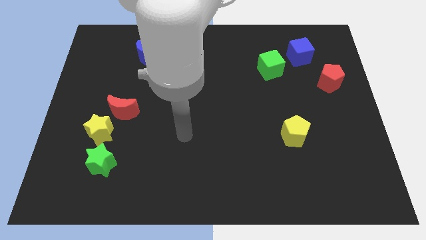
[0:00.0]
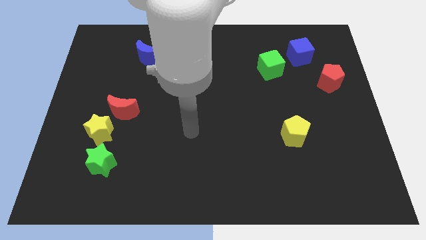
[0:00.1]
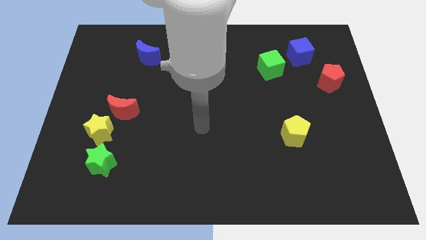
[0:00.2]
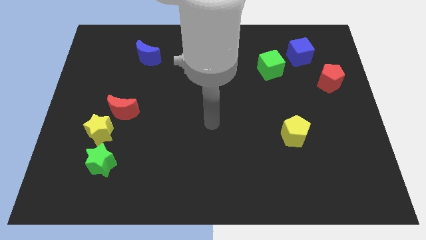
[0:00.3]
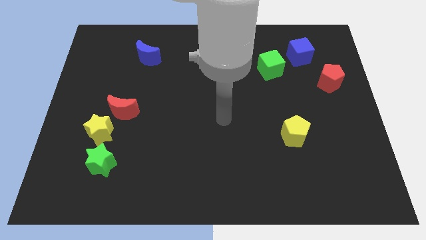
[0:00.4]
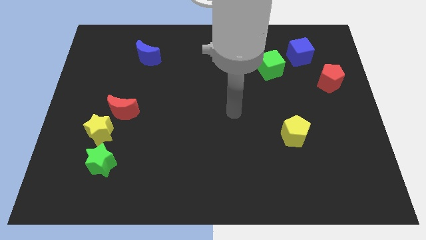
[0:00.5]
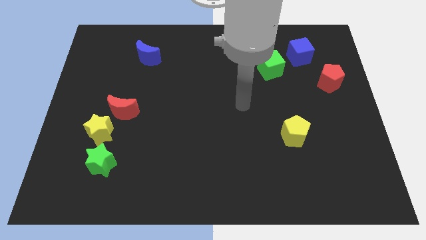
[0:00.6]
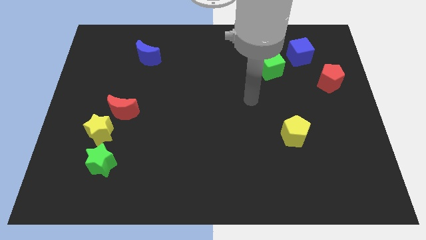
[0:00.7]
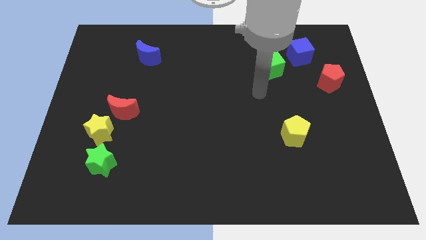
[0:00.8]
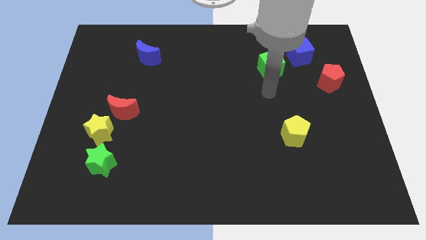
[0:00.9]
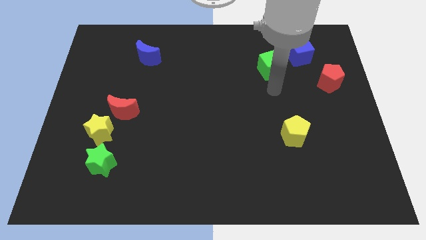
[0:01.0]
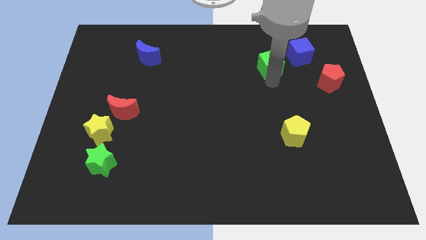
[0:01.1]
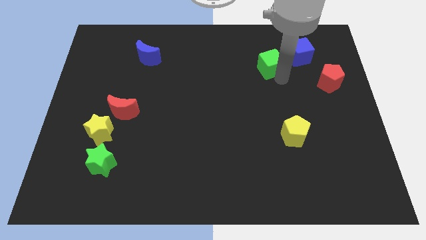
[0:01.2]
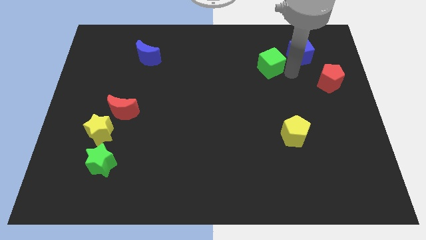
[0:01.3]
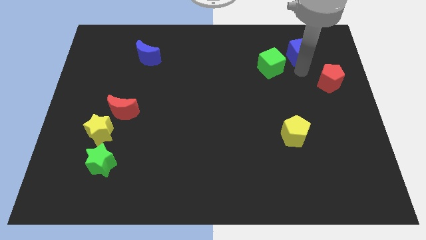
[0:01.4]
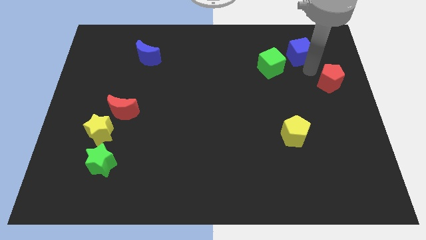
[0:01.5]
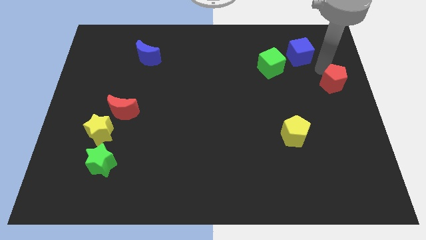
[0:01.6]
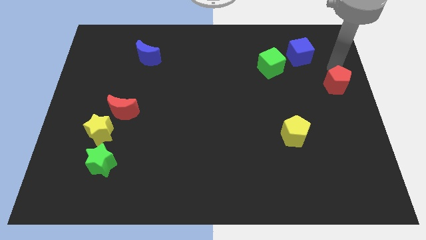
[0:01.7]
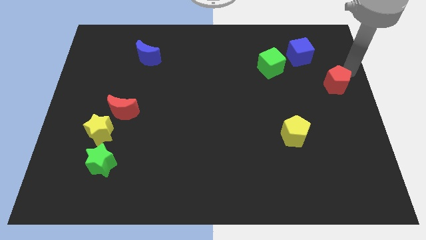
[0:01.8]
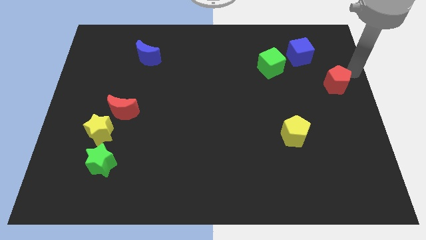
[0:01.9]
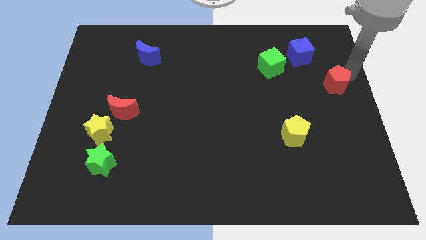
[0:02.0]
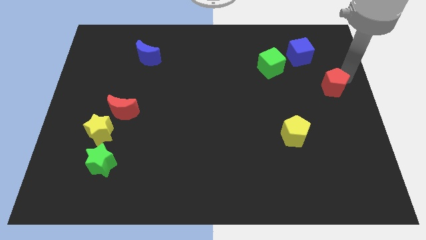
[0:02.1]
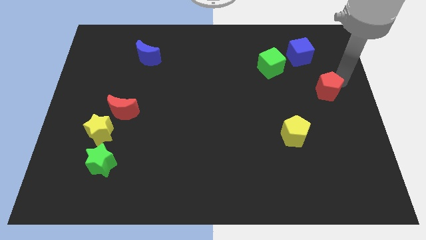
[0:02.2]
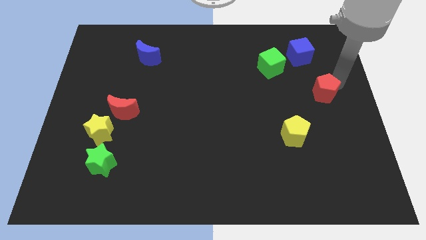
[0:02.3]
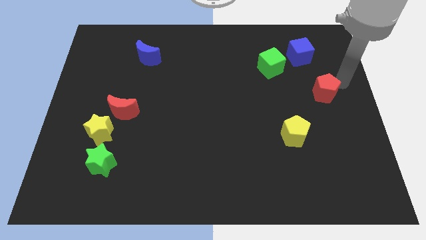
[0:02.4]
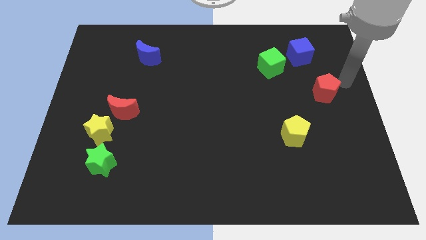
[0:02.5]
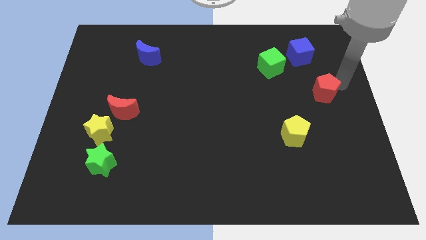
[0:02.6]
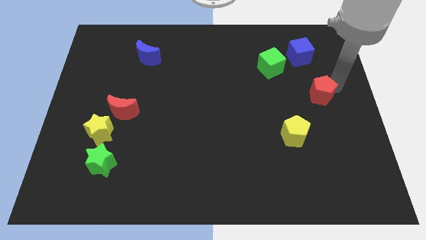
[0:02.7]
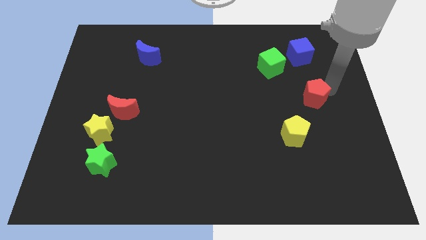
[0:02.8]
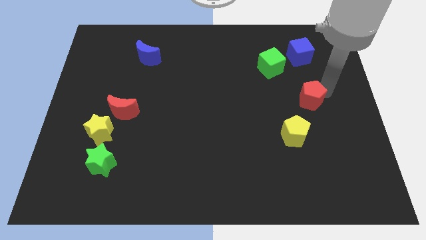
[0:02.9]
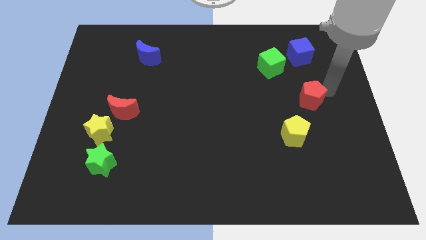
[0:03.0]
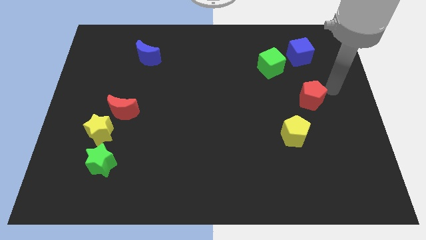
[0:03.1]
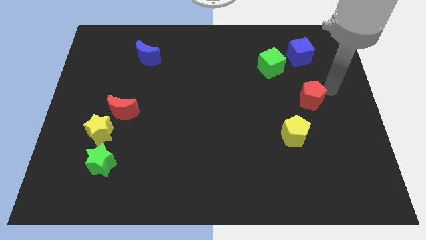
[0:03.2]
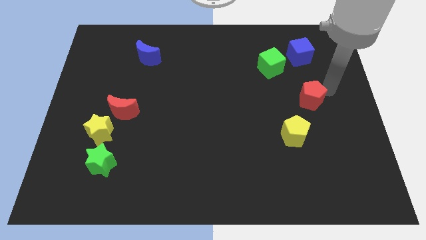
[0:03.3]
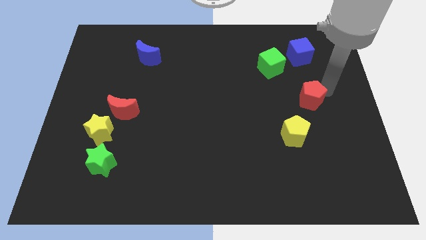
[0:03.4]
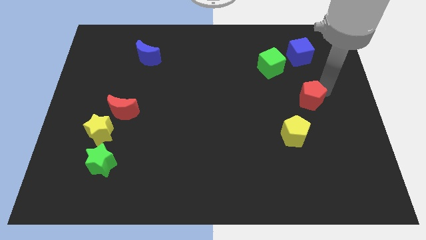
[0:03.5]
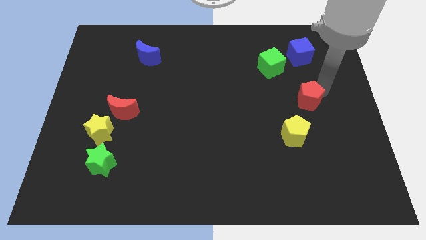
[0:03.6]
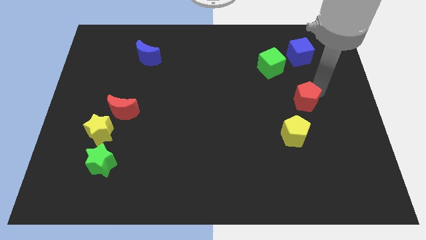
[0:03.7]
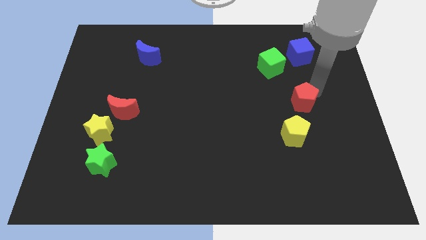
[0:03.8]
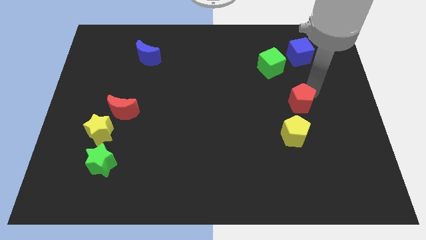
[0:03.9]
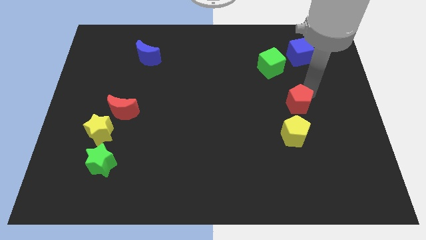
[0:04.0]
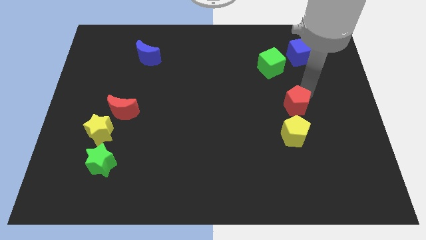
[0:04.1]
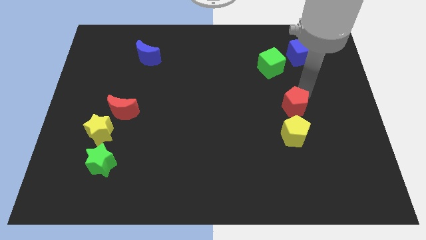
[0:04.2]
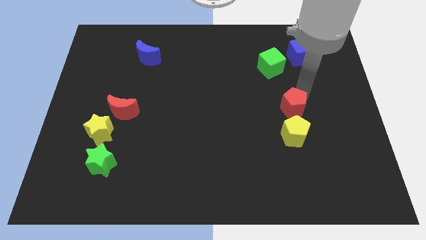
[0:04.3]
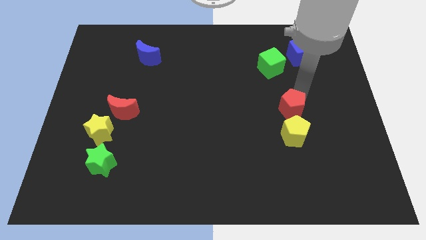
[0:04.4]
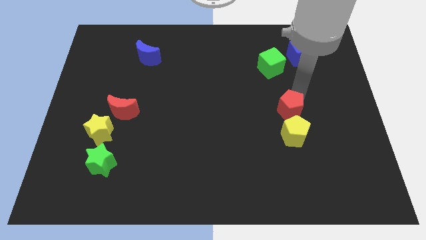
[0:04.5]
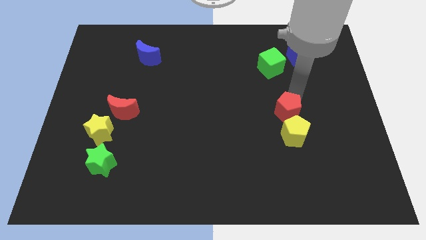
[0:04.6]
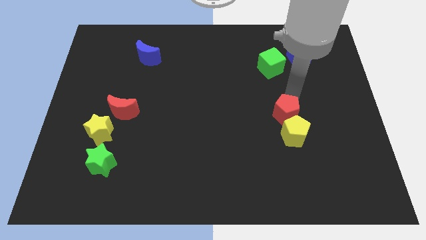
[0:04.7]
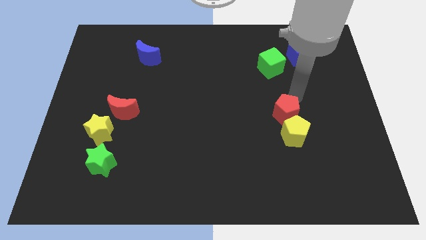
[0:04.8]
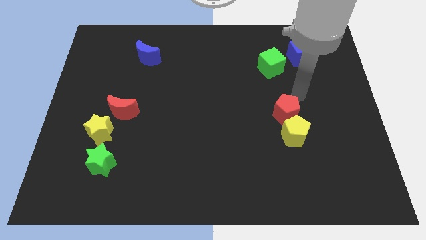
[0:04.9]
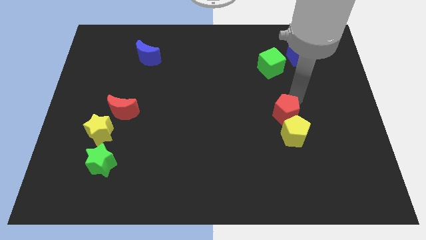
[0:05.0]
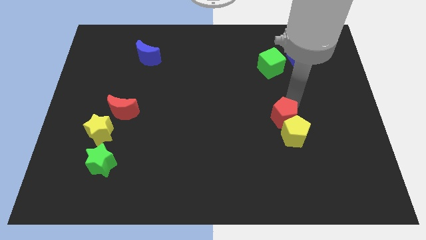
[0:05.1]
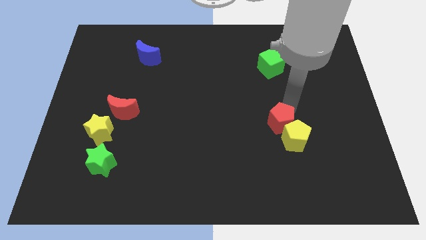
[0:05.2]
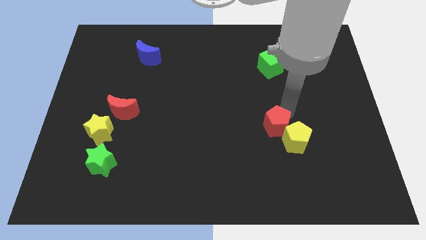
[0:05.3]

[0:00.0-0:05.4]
move the red pentagon downwards and to the left

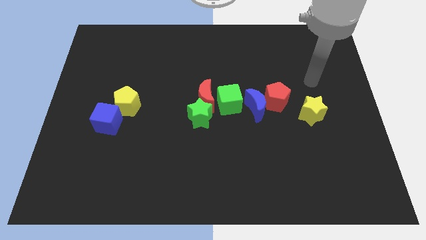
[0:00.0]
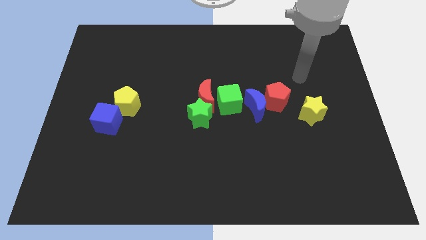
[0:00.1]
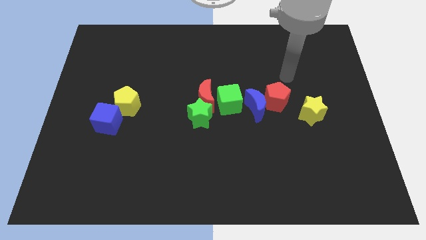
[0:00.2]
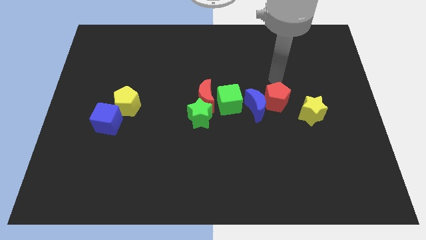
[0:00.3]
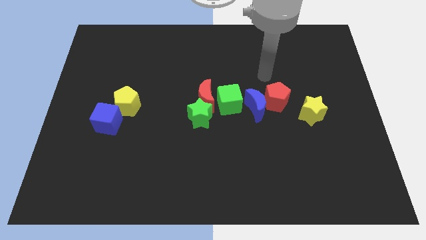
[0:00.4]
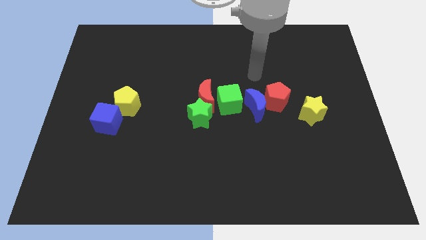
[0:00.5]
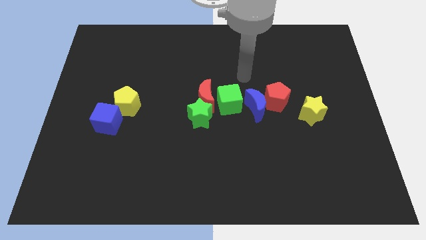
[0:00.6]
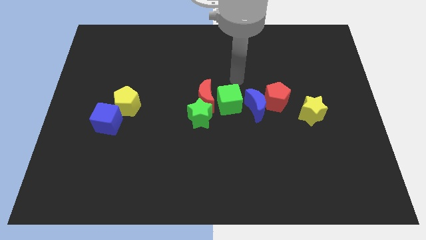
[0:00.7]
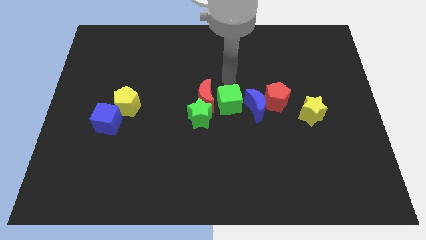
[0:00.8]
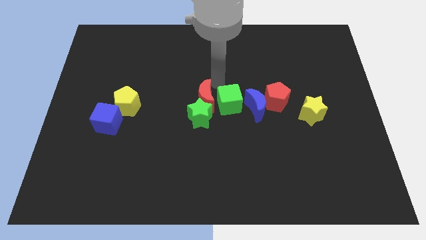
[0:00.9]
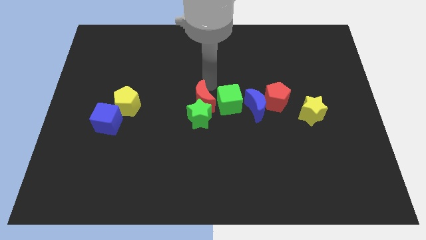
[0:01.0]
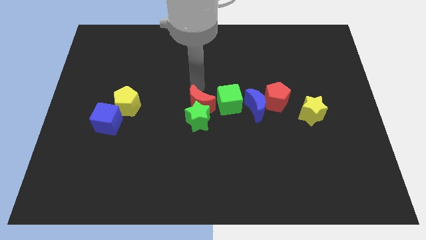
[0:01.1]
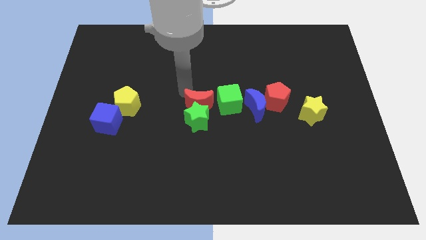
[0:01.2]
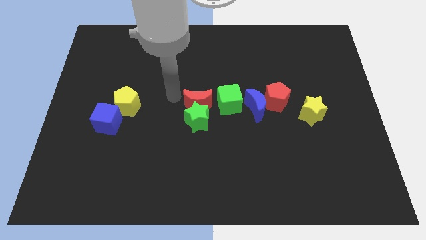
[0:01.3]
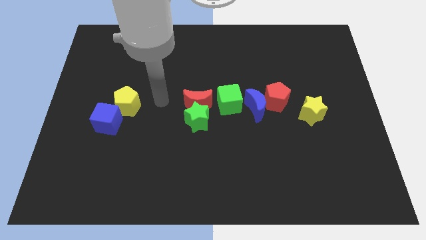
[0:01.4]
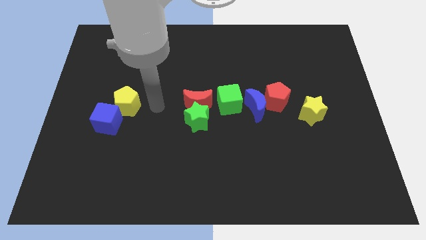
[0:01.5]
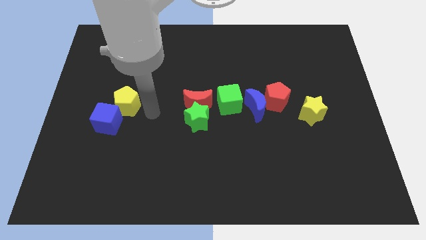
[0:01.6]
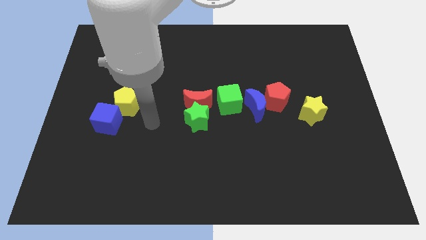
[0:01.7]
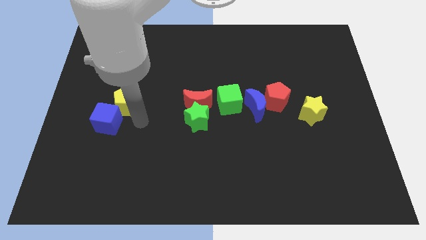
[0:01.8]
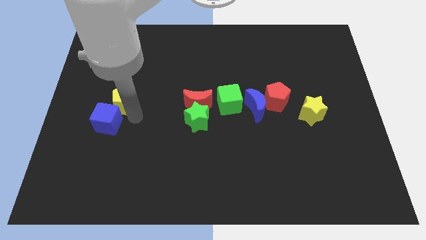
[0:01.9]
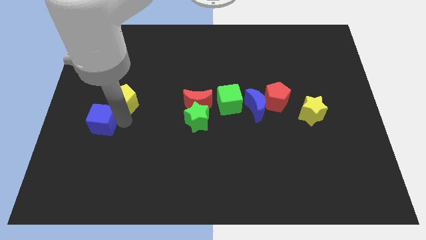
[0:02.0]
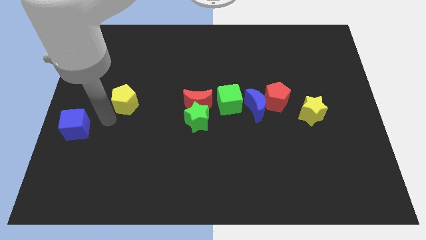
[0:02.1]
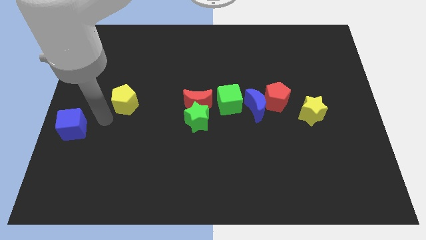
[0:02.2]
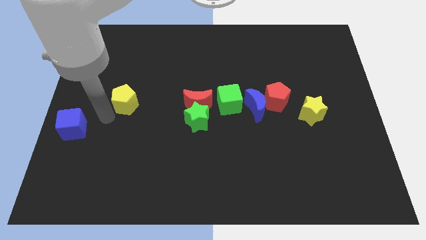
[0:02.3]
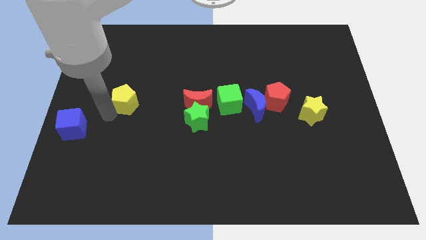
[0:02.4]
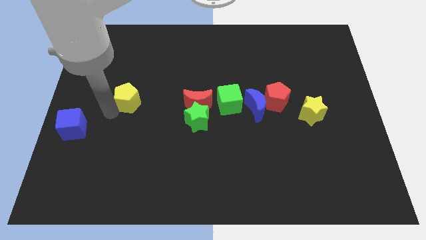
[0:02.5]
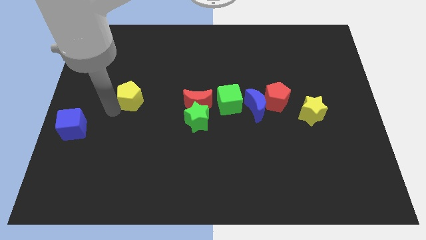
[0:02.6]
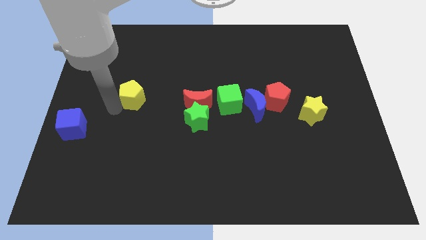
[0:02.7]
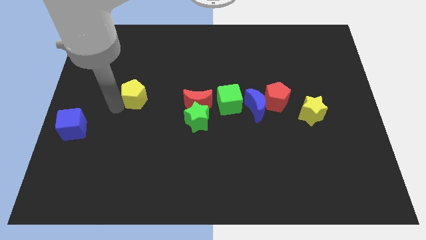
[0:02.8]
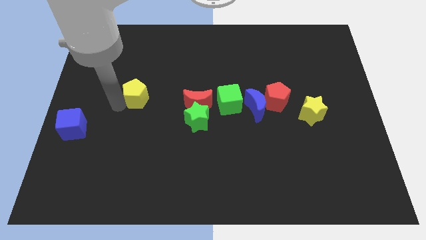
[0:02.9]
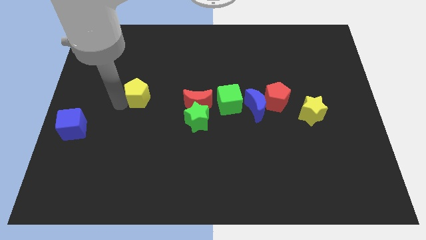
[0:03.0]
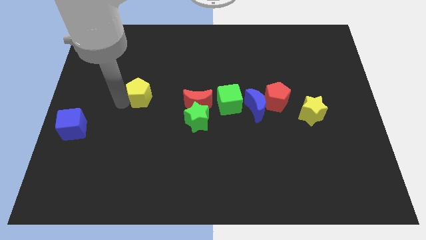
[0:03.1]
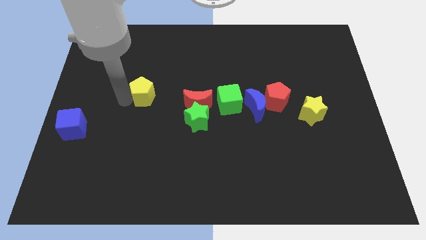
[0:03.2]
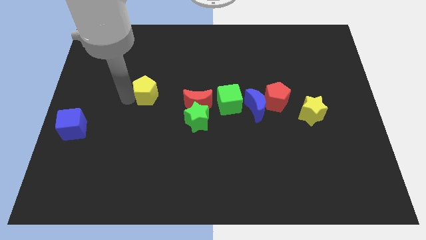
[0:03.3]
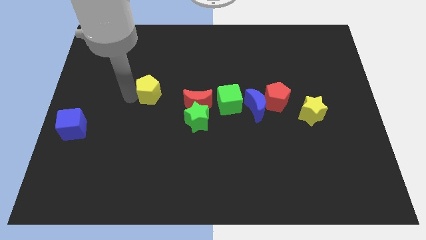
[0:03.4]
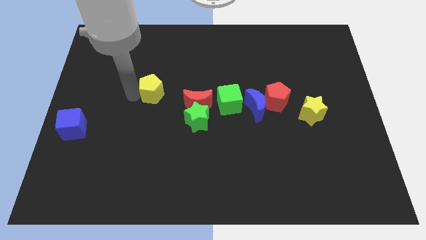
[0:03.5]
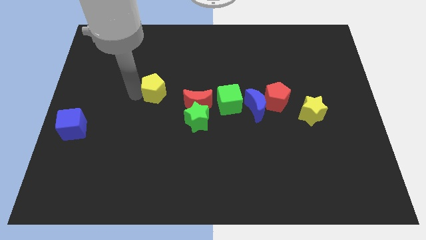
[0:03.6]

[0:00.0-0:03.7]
slide the yellow pentagon up and right diagonally a little bit
